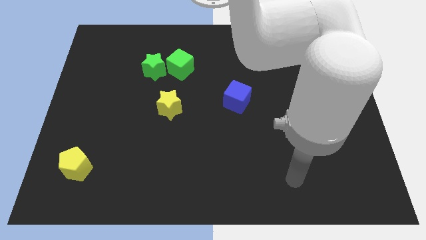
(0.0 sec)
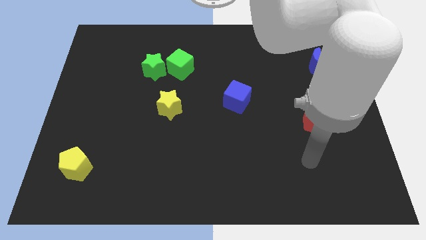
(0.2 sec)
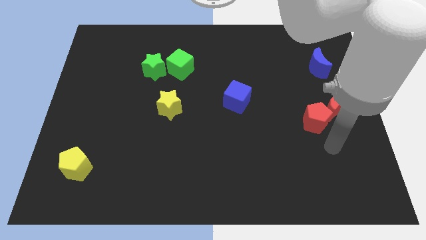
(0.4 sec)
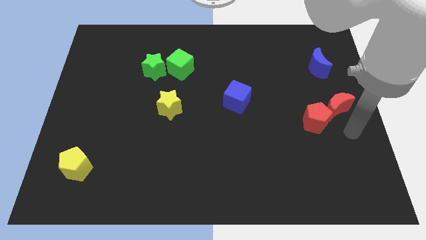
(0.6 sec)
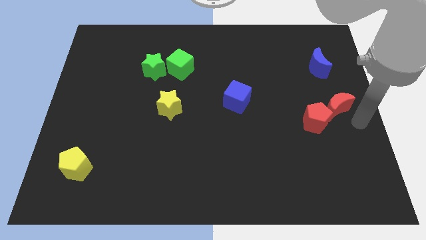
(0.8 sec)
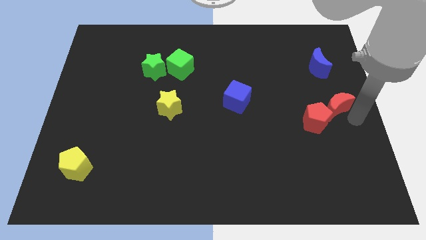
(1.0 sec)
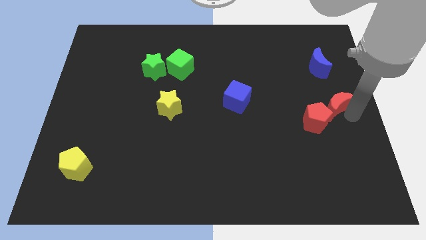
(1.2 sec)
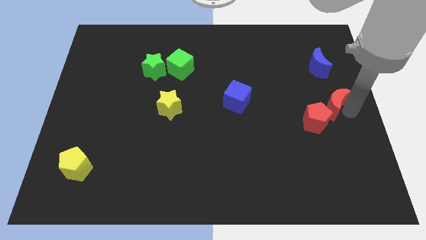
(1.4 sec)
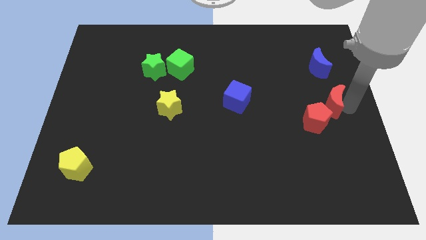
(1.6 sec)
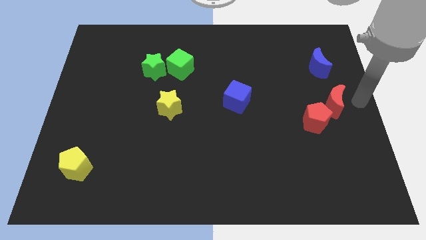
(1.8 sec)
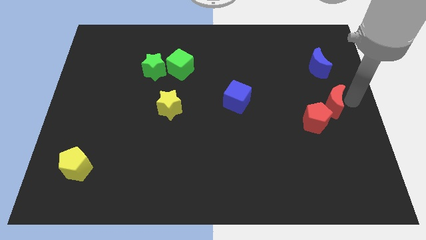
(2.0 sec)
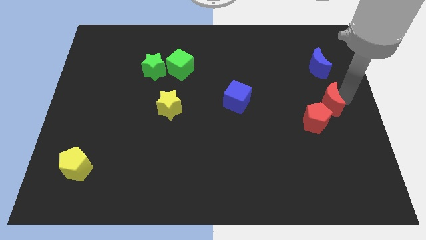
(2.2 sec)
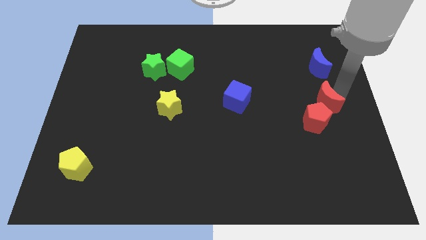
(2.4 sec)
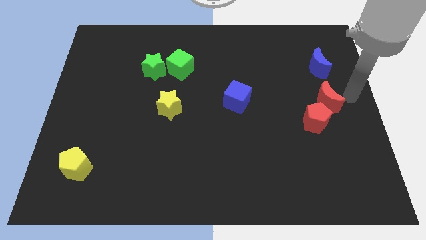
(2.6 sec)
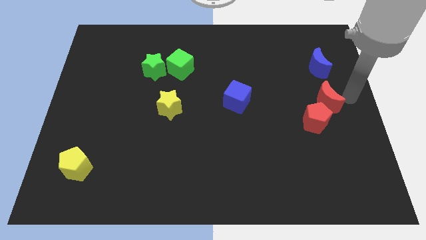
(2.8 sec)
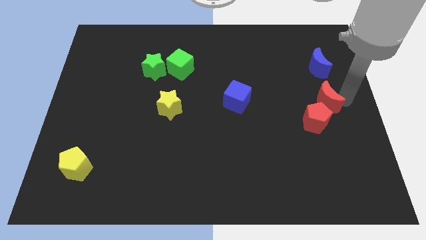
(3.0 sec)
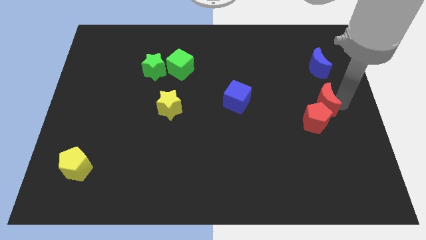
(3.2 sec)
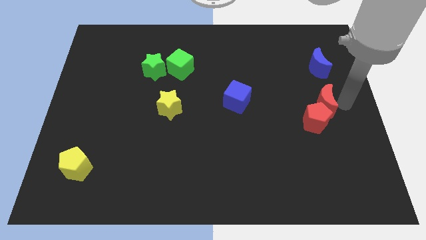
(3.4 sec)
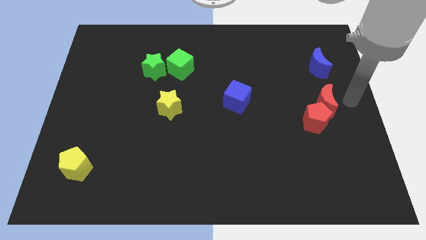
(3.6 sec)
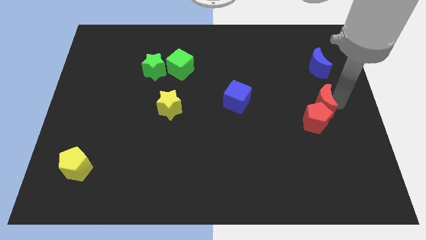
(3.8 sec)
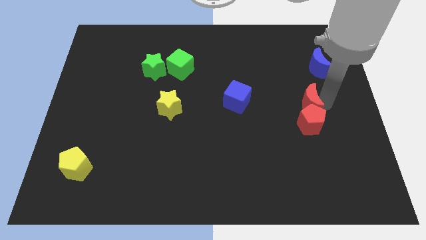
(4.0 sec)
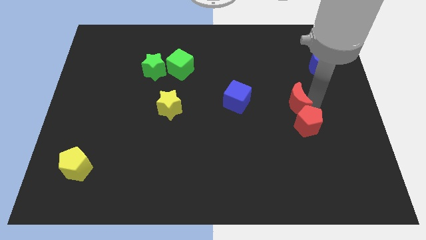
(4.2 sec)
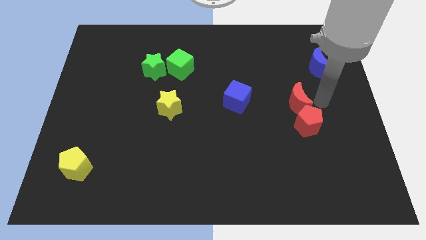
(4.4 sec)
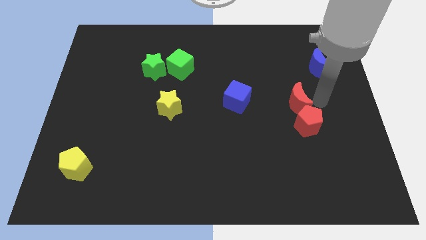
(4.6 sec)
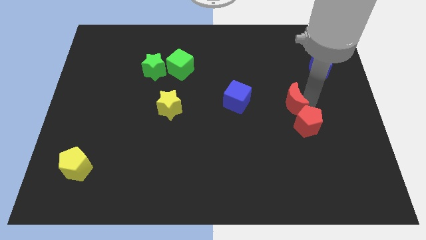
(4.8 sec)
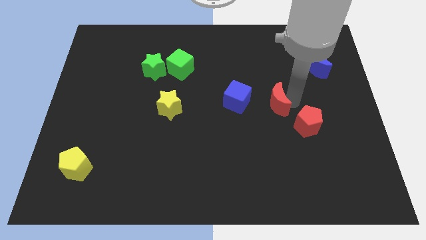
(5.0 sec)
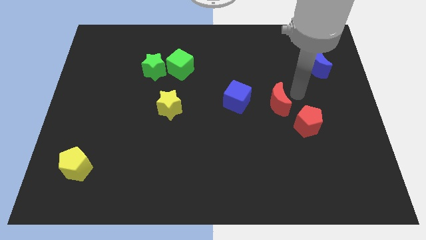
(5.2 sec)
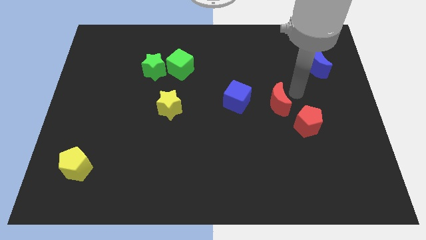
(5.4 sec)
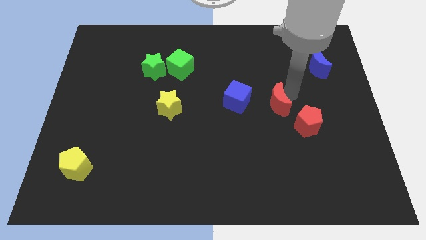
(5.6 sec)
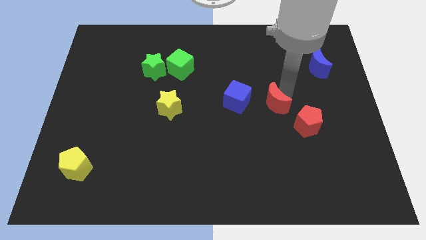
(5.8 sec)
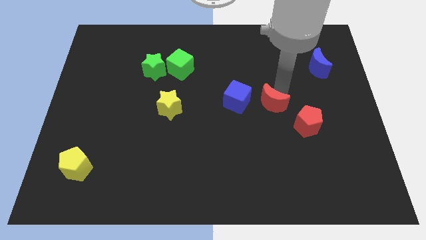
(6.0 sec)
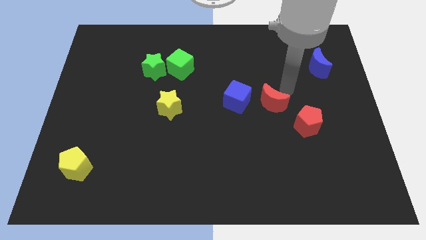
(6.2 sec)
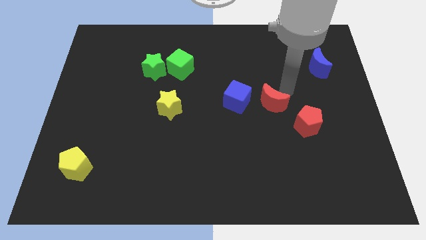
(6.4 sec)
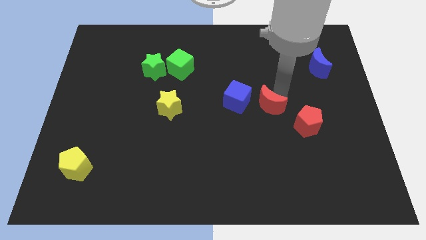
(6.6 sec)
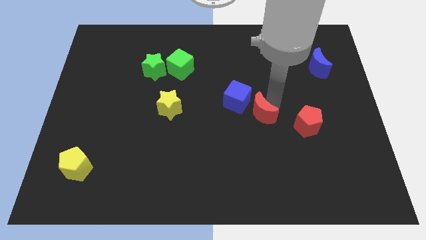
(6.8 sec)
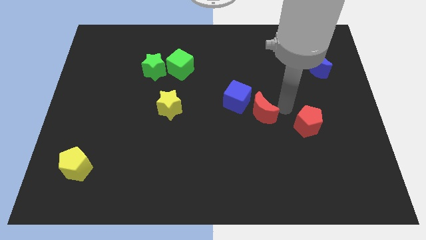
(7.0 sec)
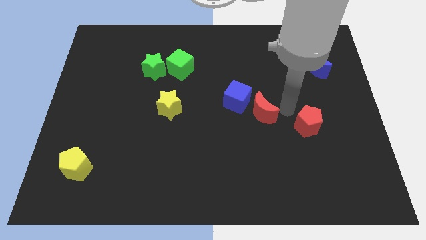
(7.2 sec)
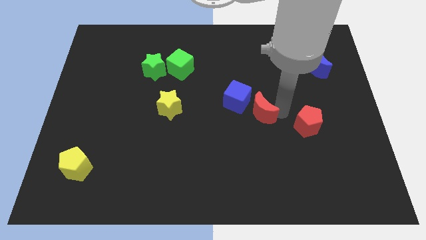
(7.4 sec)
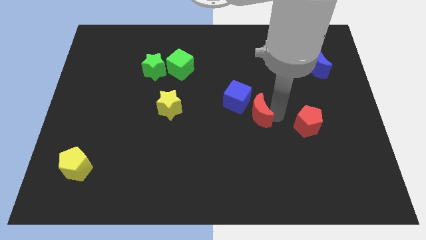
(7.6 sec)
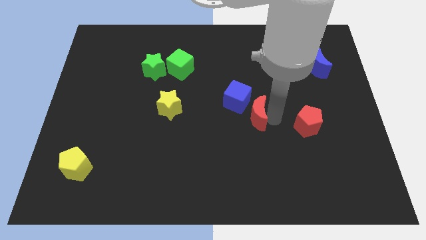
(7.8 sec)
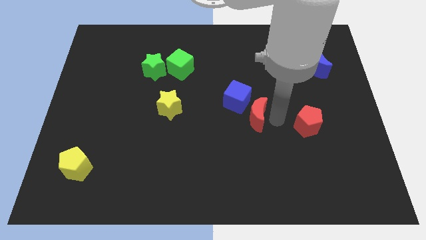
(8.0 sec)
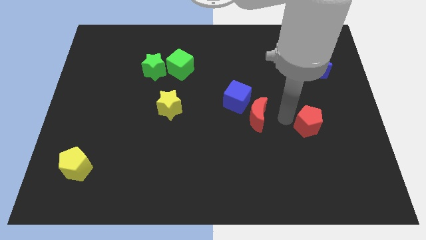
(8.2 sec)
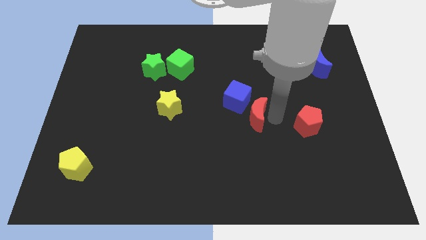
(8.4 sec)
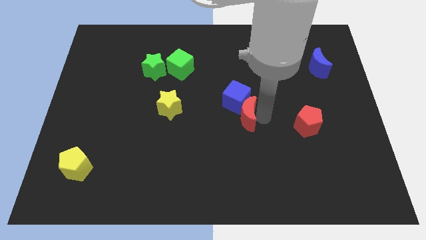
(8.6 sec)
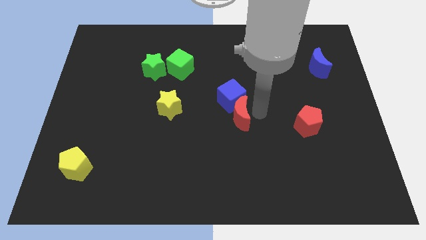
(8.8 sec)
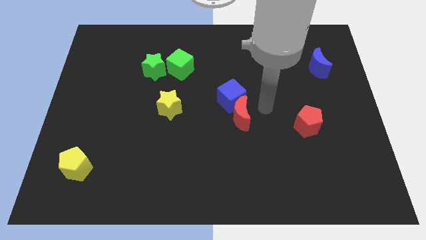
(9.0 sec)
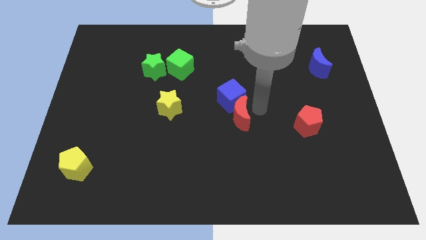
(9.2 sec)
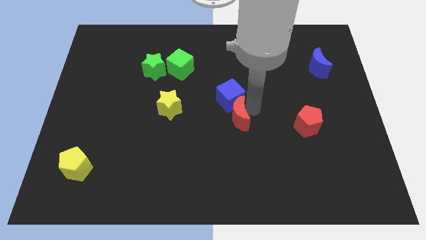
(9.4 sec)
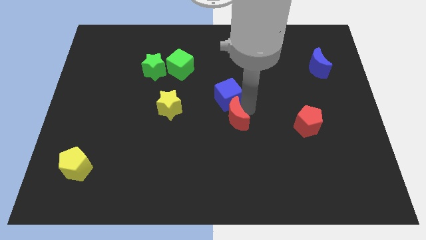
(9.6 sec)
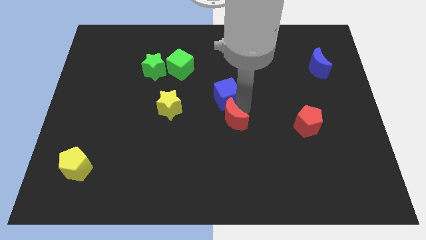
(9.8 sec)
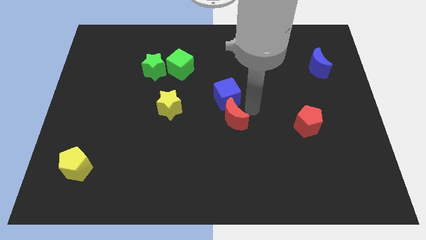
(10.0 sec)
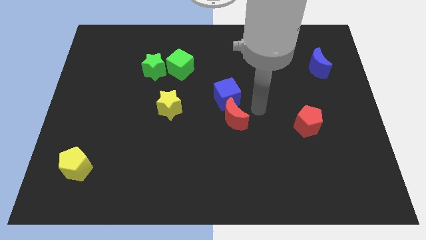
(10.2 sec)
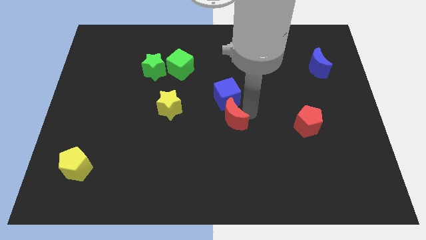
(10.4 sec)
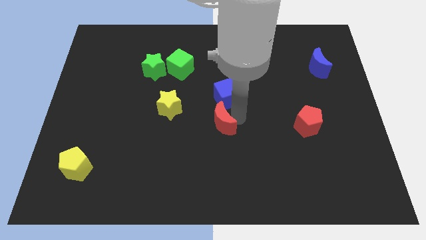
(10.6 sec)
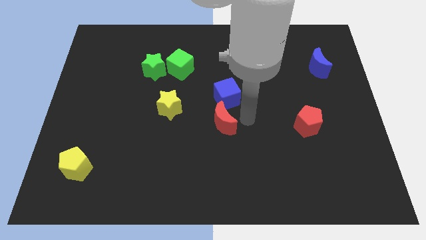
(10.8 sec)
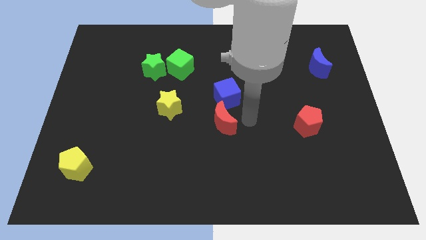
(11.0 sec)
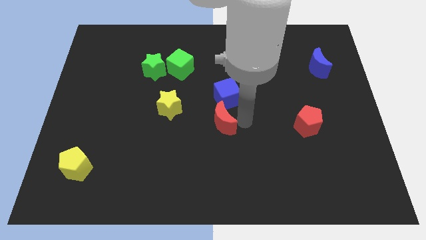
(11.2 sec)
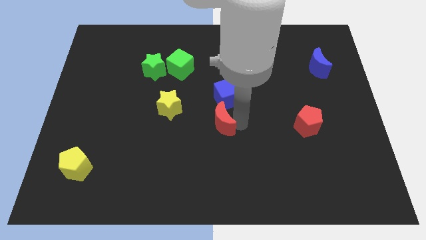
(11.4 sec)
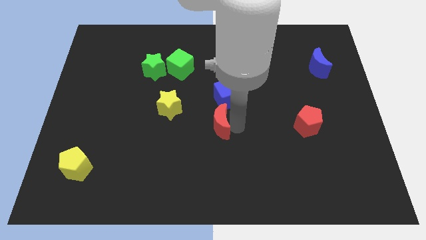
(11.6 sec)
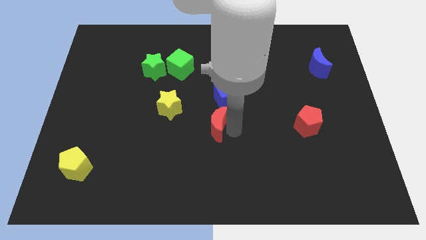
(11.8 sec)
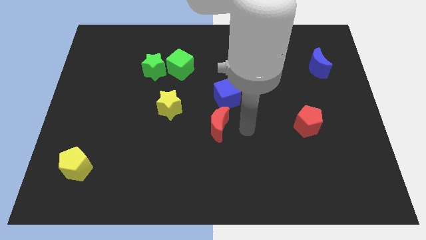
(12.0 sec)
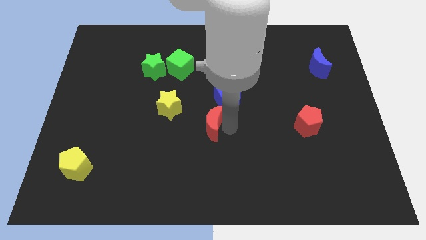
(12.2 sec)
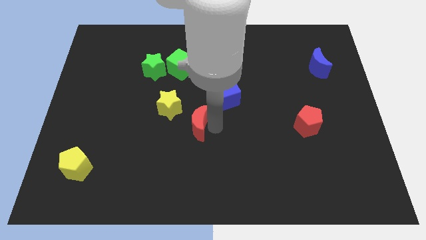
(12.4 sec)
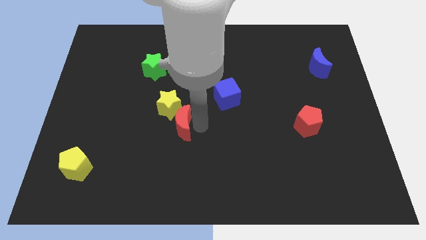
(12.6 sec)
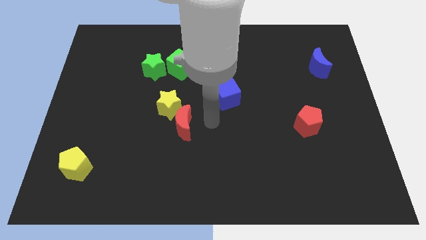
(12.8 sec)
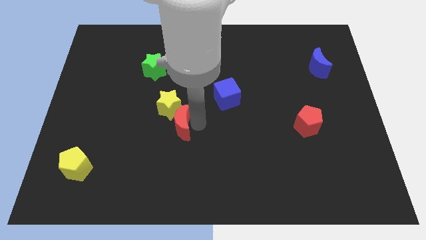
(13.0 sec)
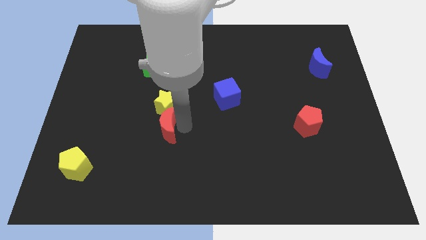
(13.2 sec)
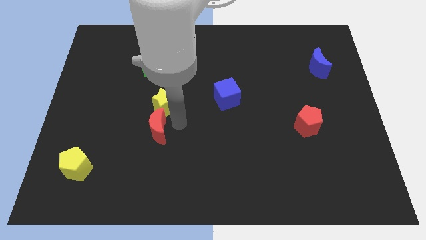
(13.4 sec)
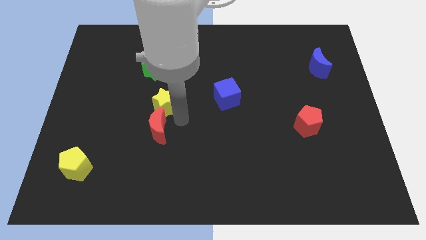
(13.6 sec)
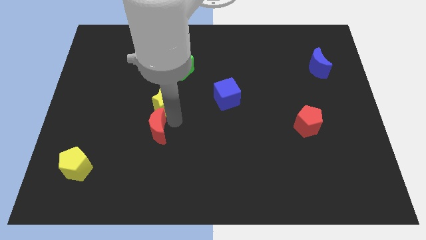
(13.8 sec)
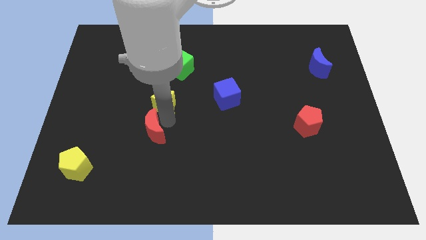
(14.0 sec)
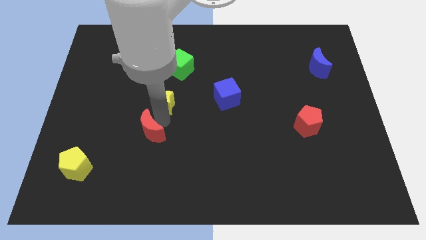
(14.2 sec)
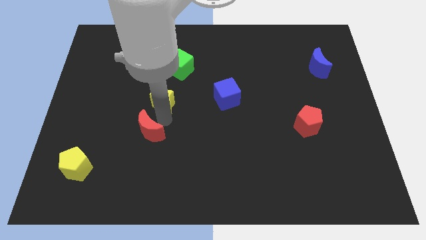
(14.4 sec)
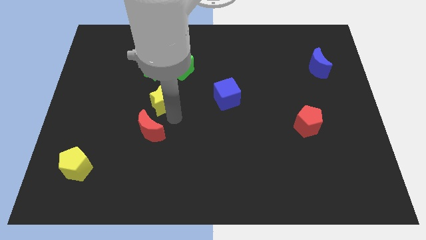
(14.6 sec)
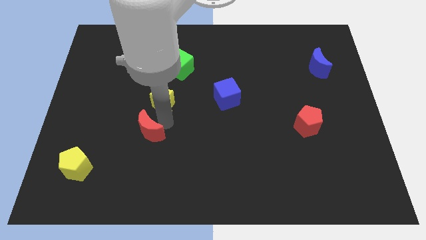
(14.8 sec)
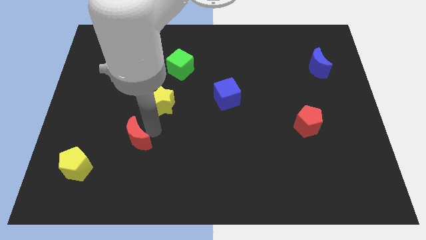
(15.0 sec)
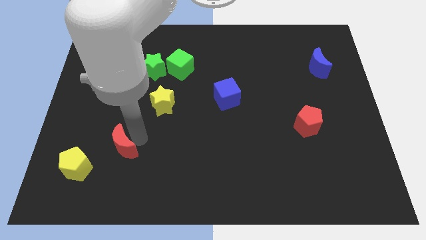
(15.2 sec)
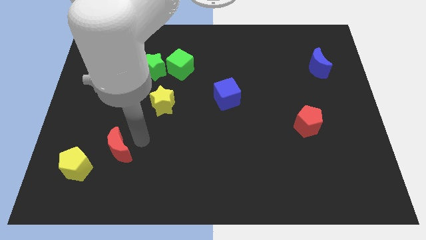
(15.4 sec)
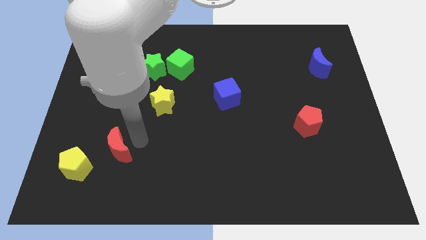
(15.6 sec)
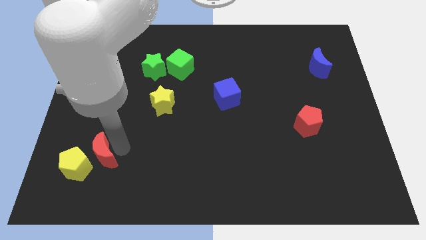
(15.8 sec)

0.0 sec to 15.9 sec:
push the red moon close to the yellow pentagon
